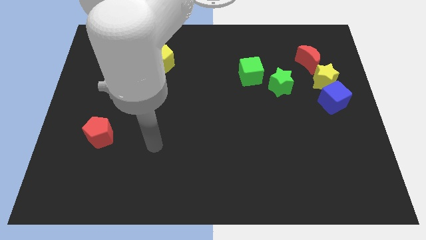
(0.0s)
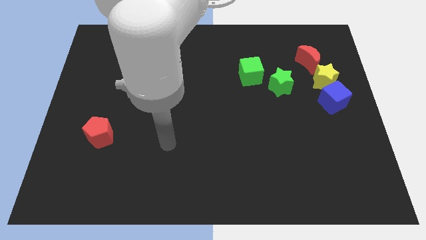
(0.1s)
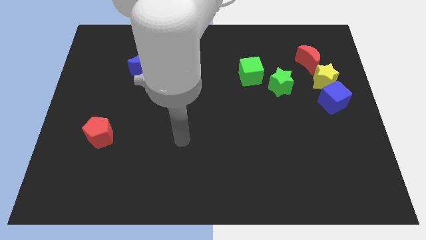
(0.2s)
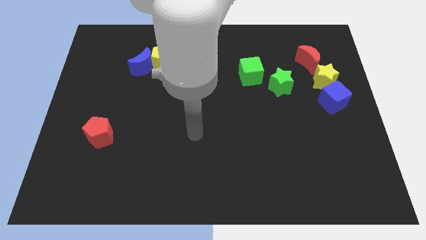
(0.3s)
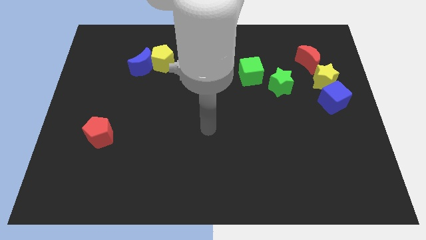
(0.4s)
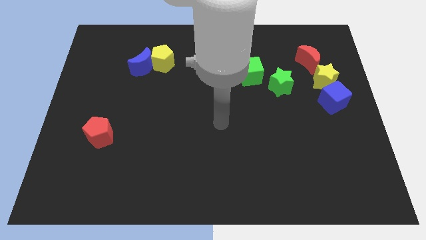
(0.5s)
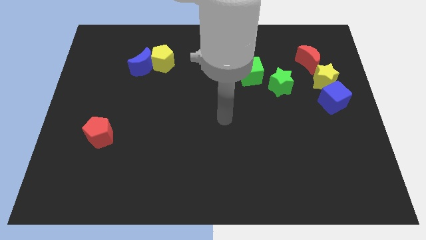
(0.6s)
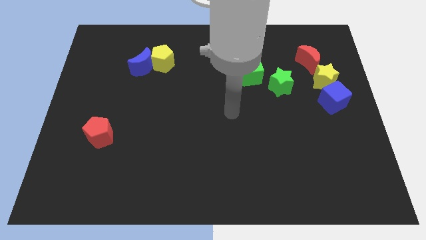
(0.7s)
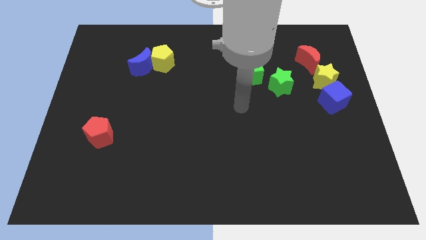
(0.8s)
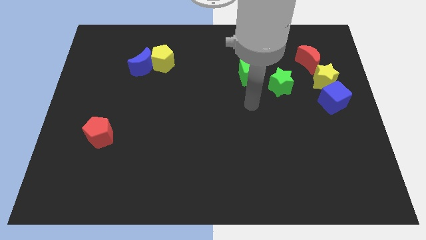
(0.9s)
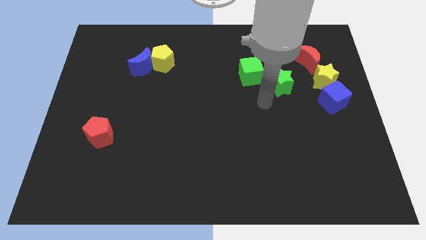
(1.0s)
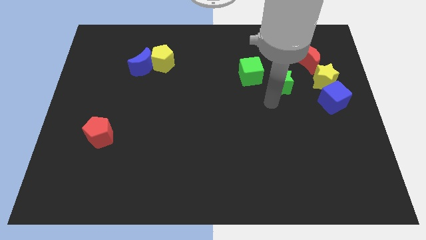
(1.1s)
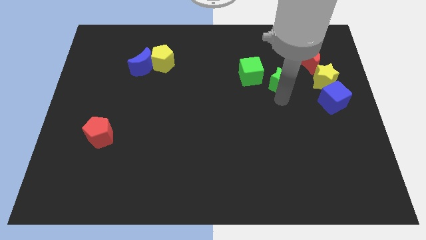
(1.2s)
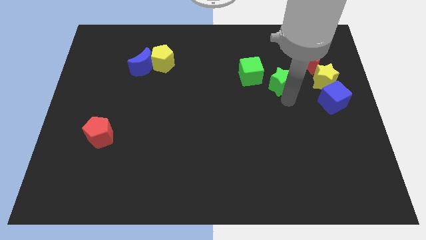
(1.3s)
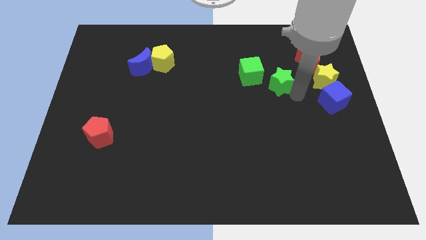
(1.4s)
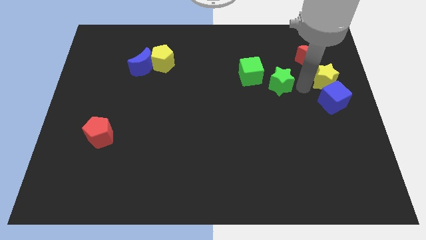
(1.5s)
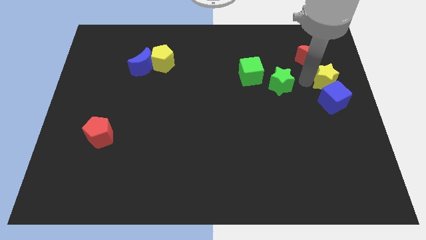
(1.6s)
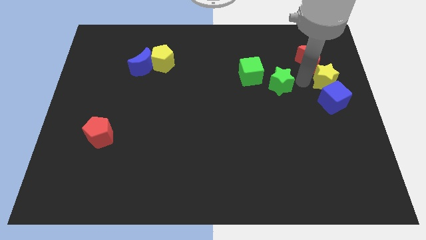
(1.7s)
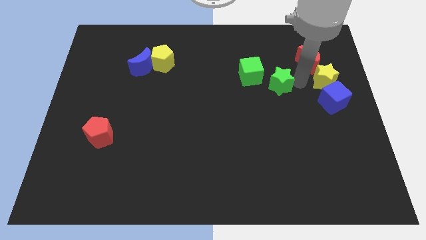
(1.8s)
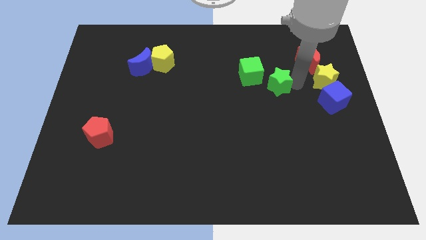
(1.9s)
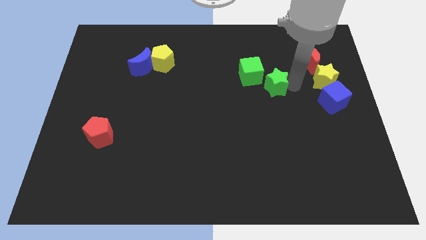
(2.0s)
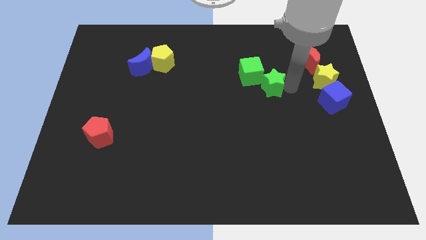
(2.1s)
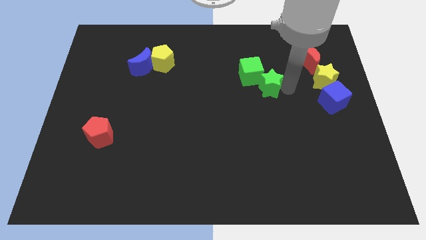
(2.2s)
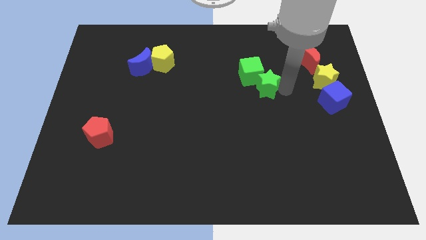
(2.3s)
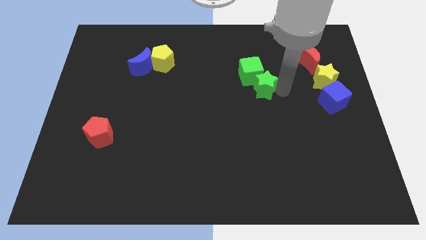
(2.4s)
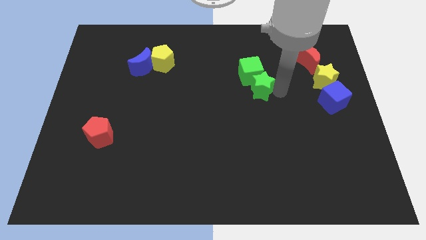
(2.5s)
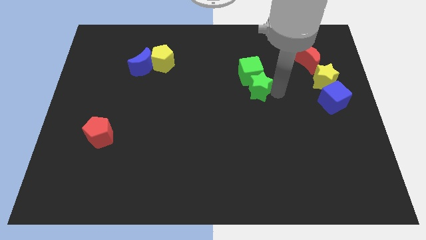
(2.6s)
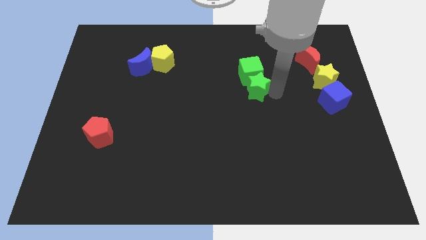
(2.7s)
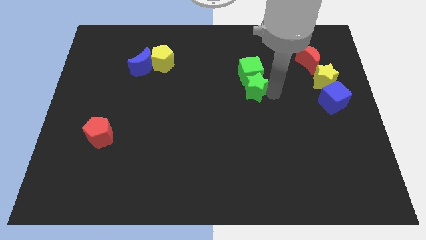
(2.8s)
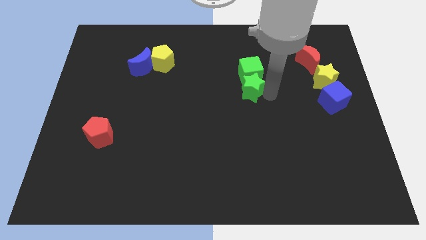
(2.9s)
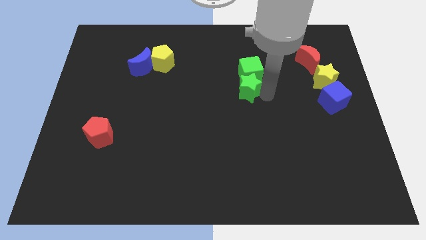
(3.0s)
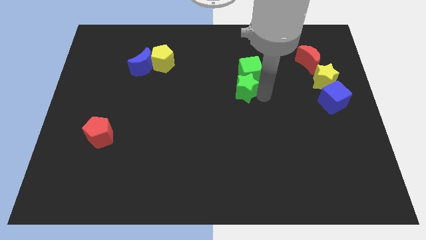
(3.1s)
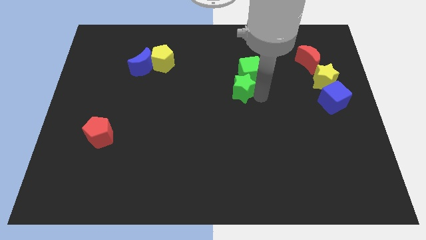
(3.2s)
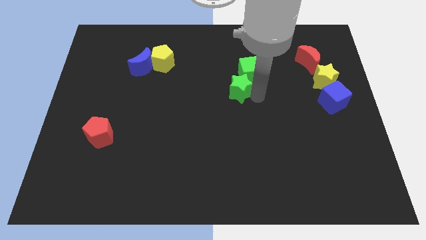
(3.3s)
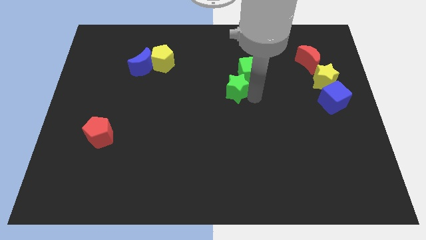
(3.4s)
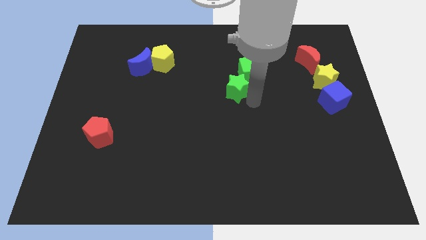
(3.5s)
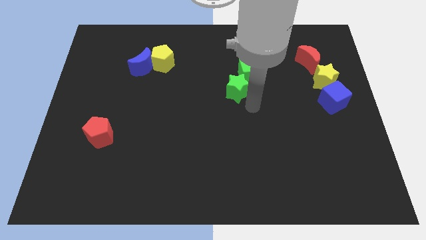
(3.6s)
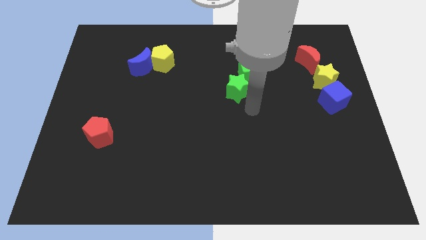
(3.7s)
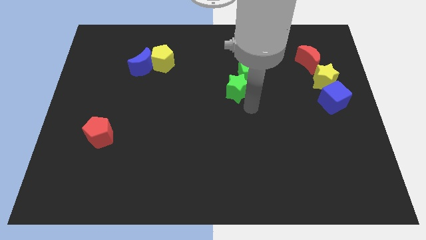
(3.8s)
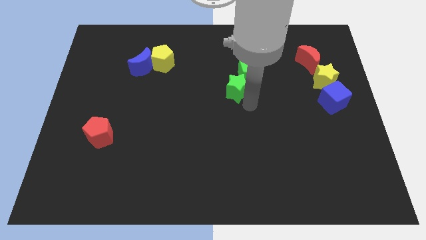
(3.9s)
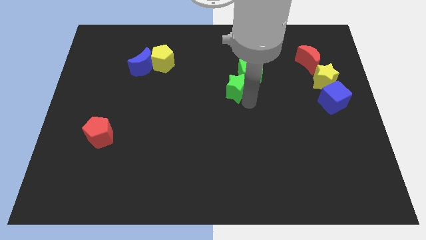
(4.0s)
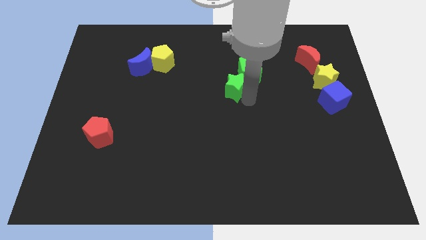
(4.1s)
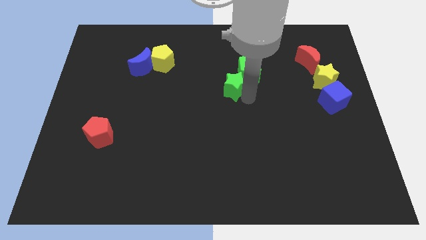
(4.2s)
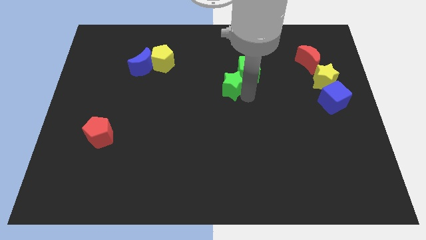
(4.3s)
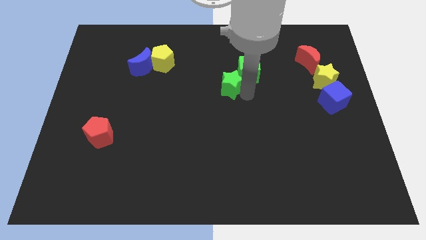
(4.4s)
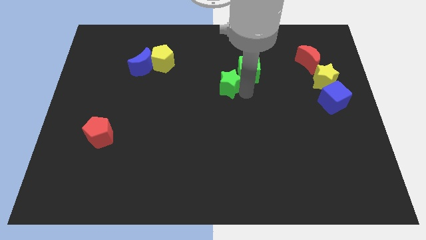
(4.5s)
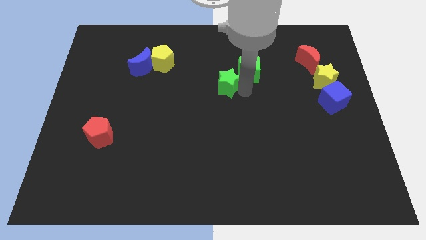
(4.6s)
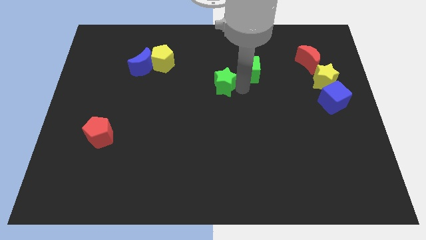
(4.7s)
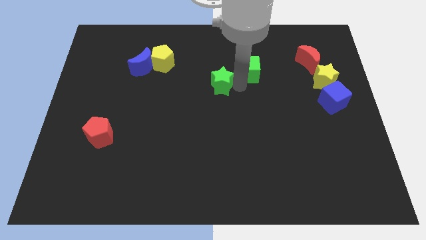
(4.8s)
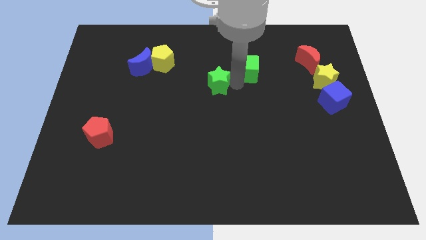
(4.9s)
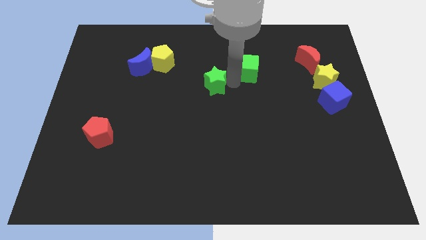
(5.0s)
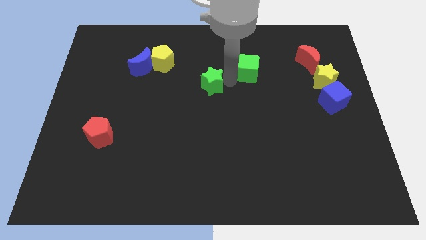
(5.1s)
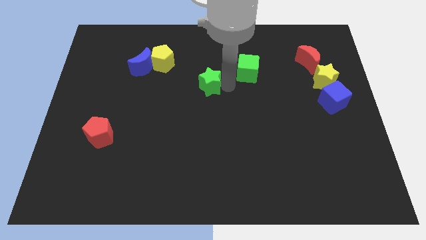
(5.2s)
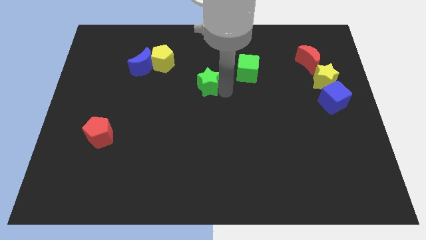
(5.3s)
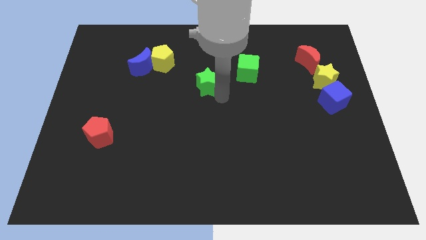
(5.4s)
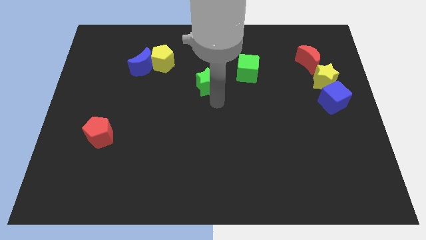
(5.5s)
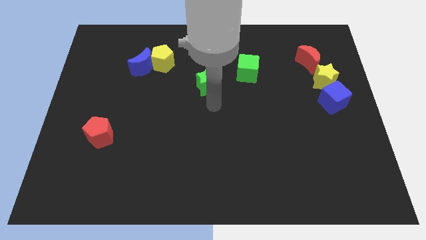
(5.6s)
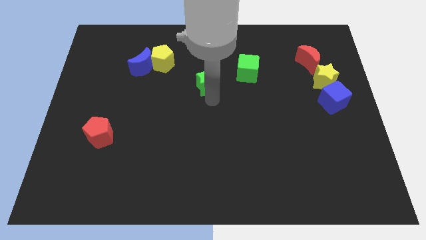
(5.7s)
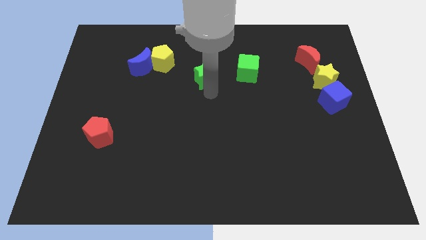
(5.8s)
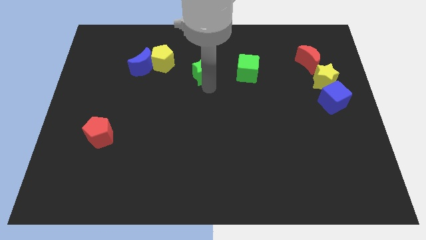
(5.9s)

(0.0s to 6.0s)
put the green star to the right of the yellow pentagon
